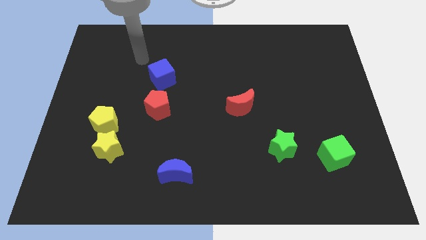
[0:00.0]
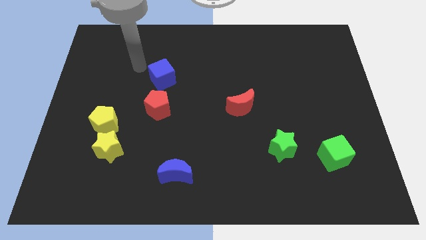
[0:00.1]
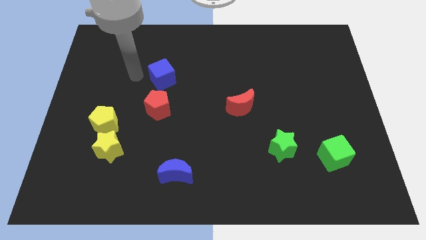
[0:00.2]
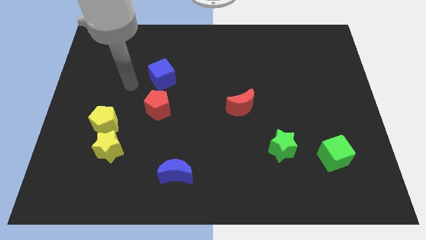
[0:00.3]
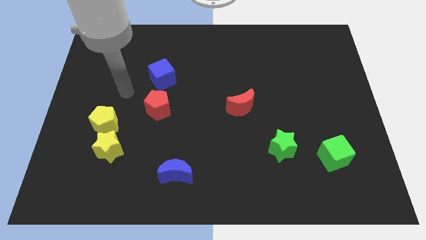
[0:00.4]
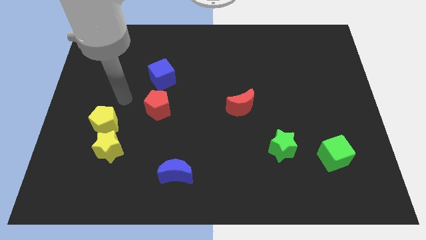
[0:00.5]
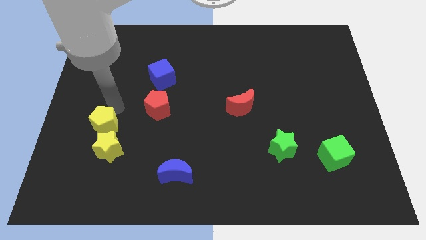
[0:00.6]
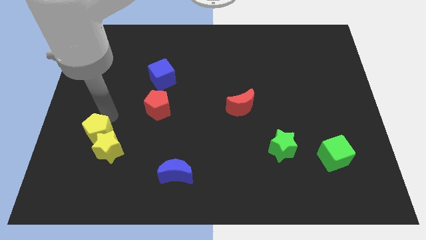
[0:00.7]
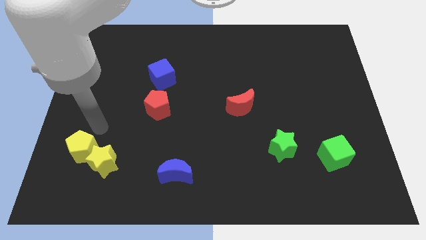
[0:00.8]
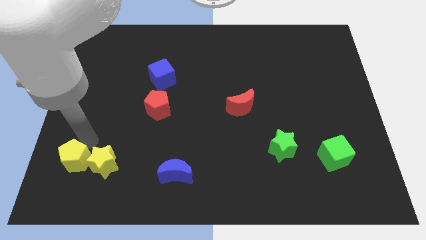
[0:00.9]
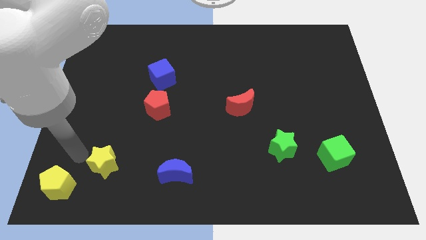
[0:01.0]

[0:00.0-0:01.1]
separate the yellow star from the yellow pentagon

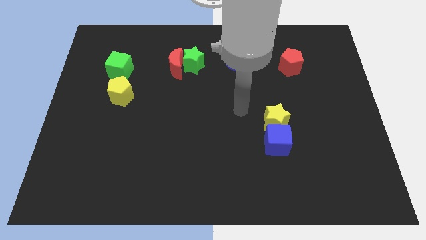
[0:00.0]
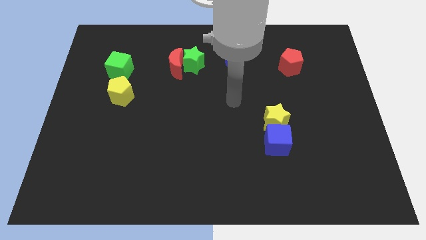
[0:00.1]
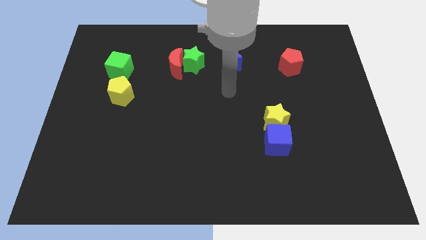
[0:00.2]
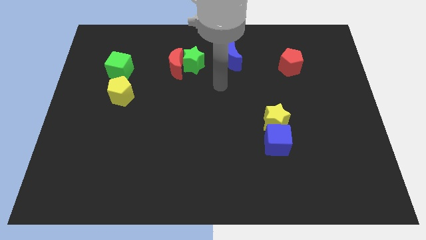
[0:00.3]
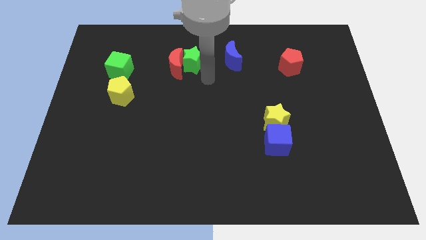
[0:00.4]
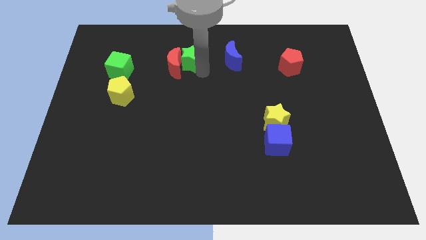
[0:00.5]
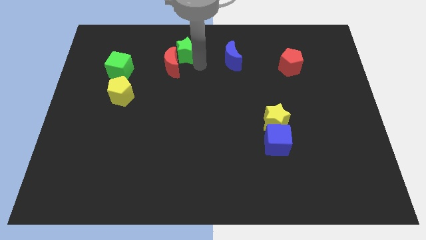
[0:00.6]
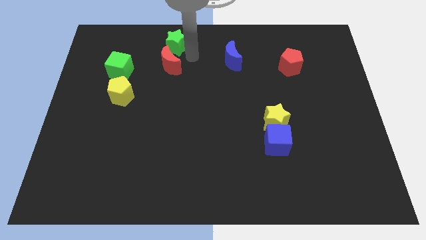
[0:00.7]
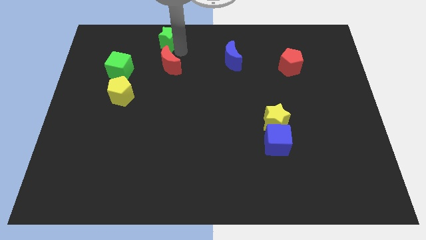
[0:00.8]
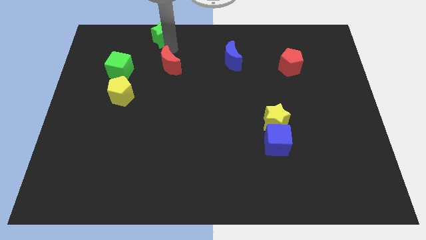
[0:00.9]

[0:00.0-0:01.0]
separate the red moon from the green star

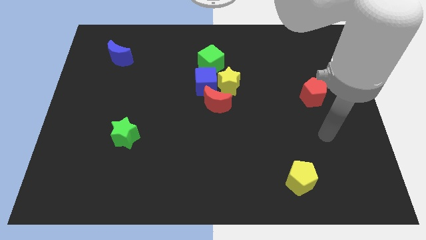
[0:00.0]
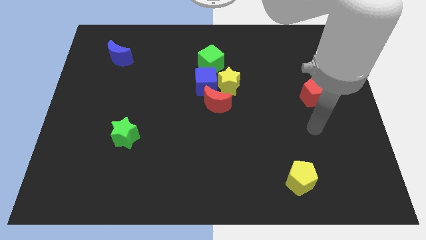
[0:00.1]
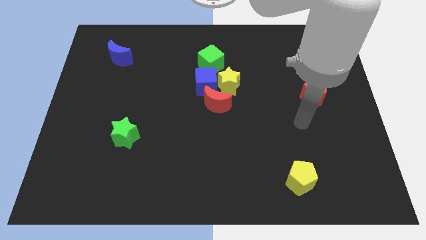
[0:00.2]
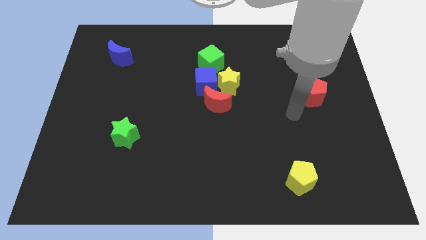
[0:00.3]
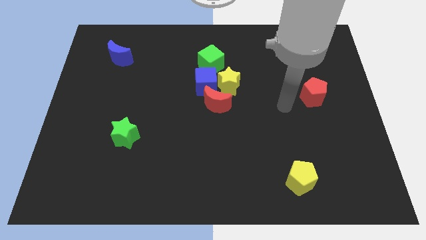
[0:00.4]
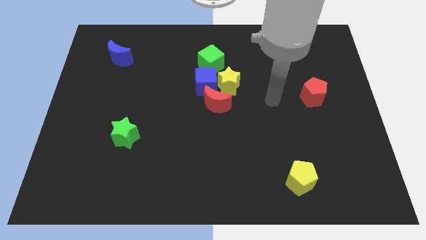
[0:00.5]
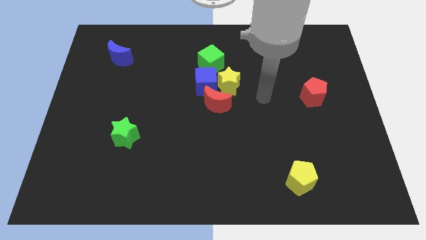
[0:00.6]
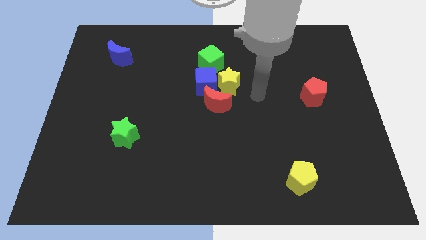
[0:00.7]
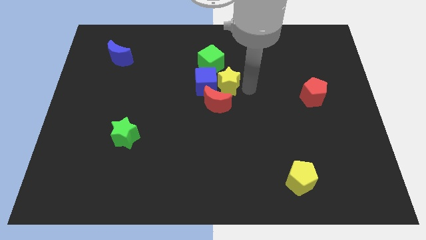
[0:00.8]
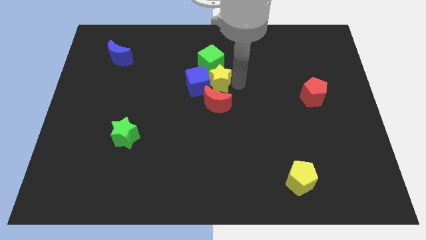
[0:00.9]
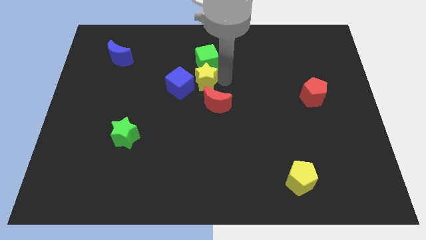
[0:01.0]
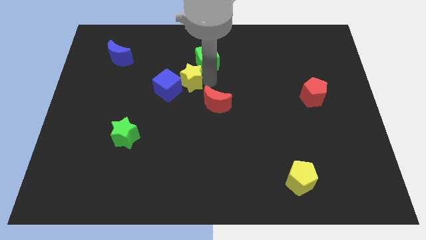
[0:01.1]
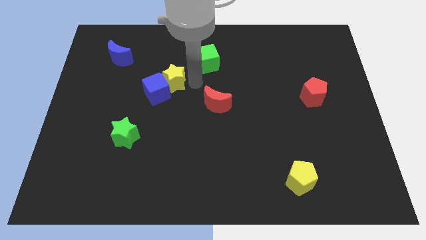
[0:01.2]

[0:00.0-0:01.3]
move the blue cube away from the yellow star, red moon, and green cube

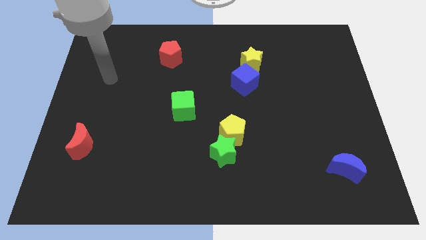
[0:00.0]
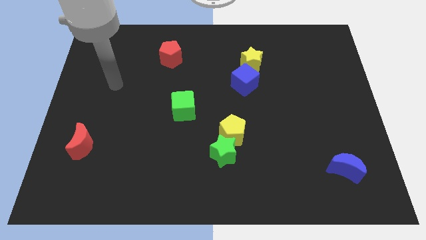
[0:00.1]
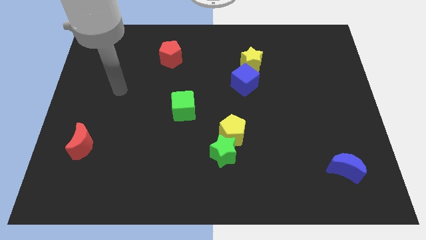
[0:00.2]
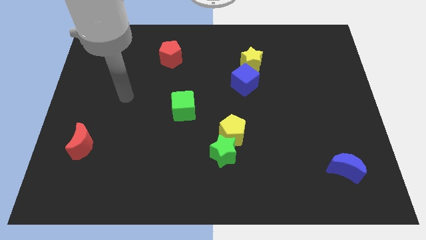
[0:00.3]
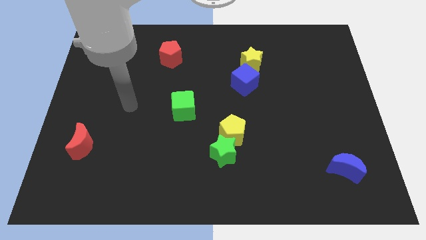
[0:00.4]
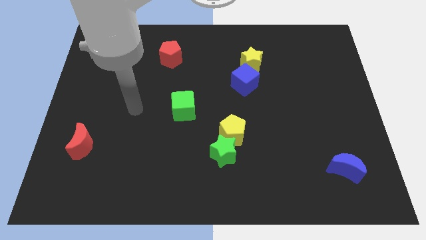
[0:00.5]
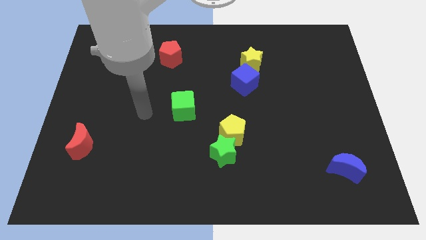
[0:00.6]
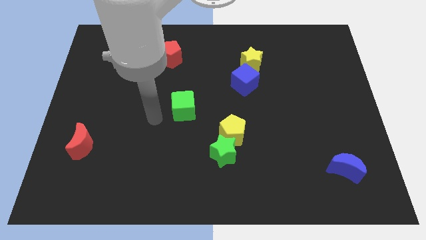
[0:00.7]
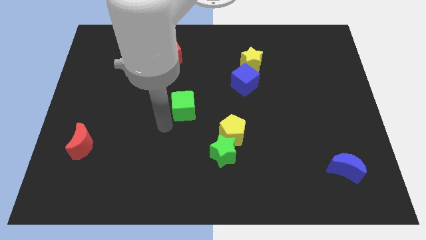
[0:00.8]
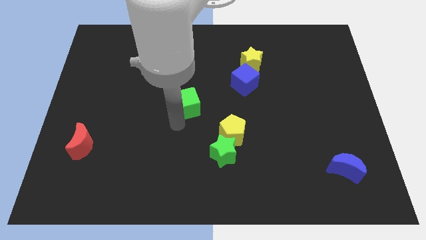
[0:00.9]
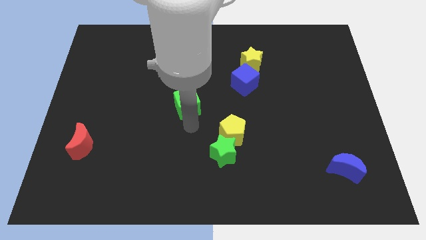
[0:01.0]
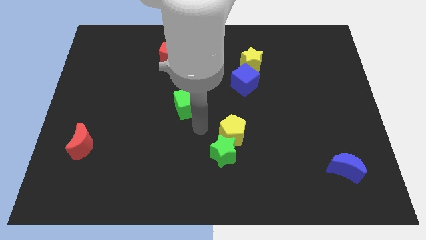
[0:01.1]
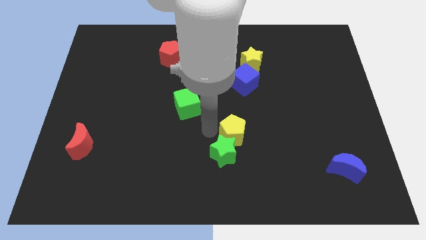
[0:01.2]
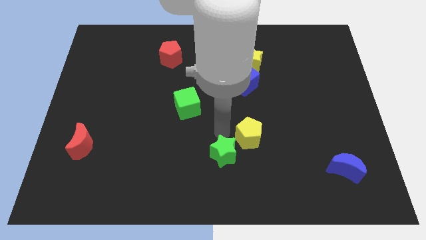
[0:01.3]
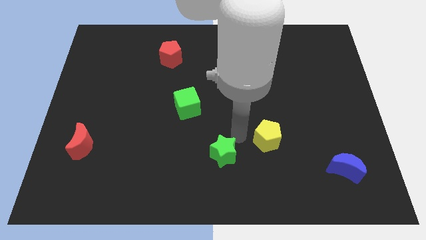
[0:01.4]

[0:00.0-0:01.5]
separate the green star from the yellow pentagon

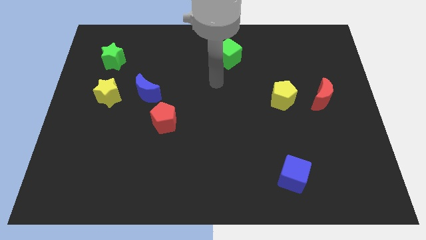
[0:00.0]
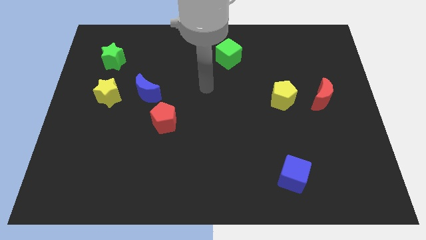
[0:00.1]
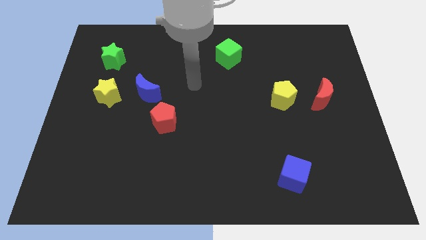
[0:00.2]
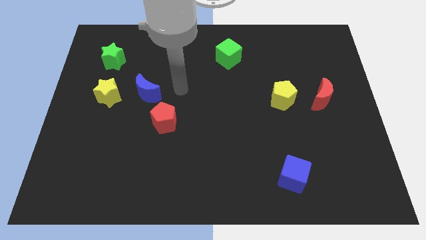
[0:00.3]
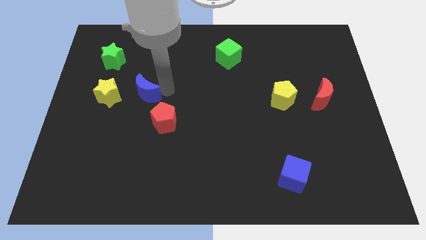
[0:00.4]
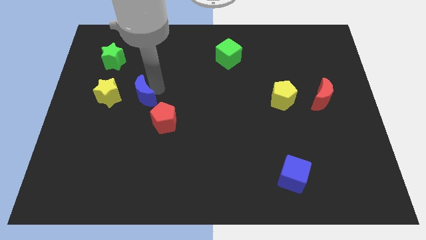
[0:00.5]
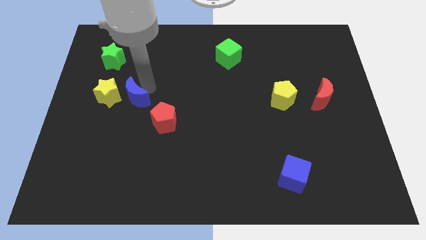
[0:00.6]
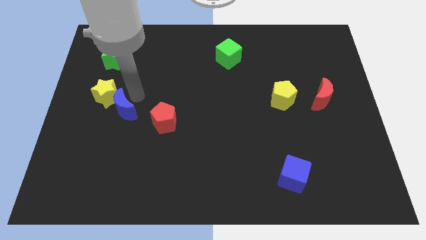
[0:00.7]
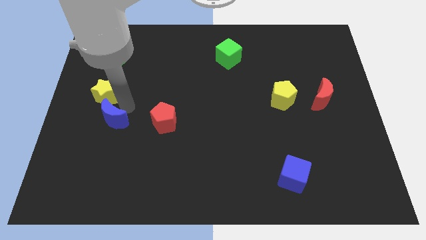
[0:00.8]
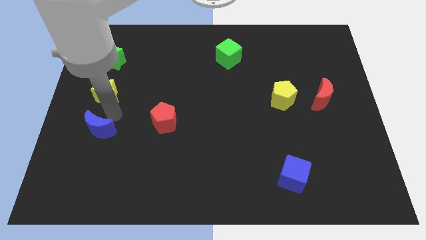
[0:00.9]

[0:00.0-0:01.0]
move the yellow star away from the blue moon

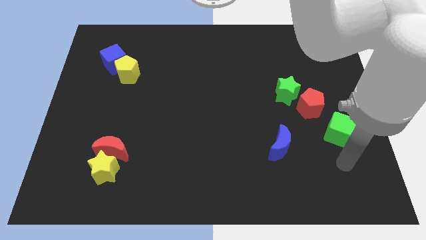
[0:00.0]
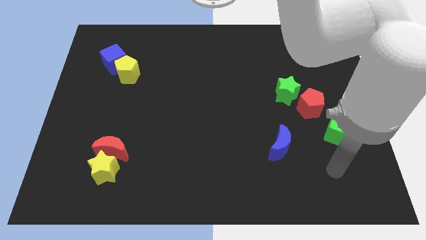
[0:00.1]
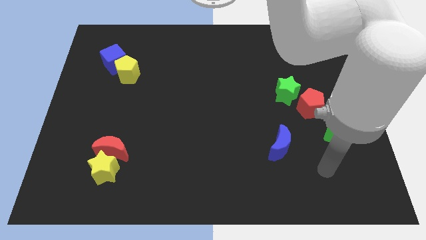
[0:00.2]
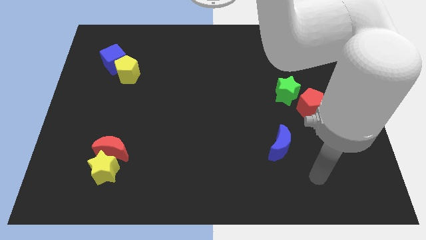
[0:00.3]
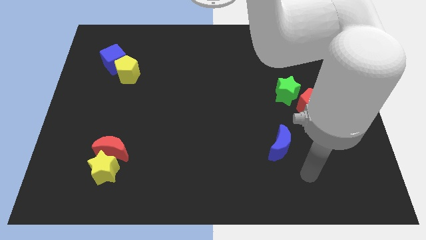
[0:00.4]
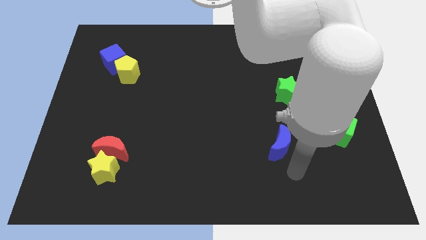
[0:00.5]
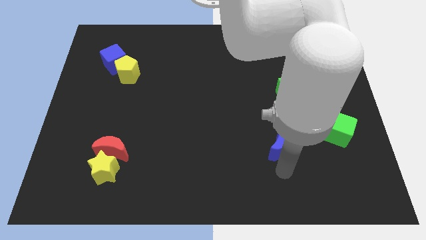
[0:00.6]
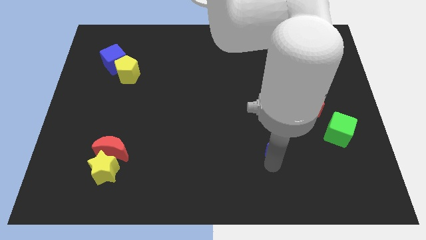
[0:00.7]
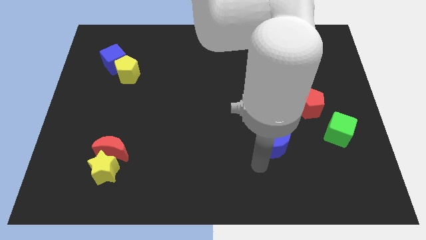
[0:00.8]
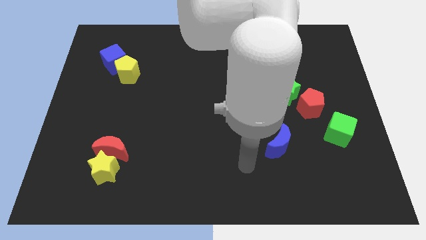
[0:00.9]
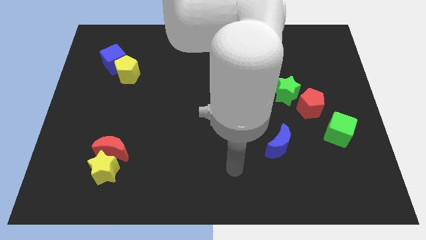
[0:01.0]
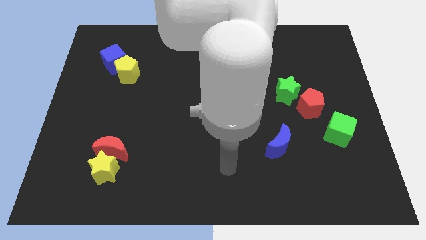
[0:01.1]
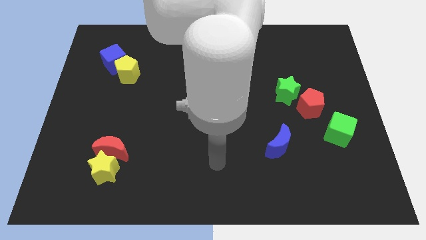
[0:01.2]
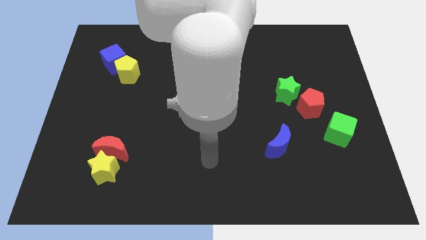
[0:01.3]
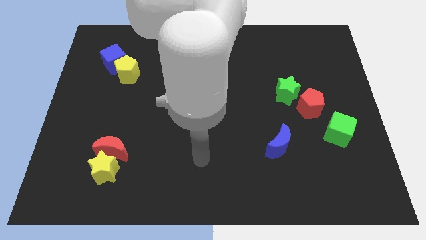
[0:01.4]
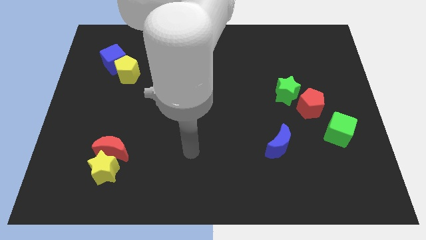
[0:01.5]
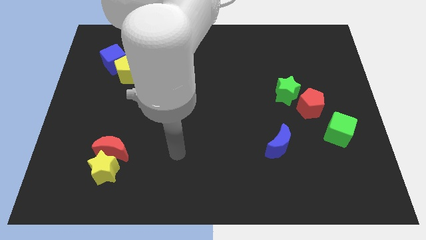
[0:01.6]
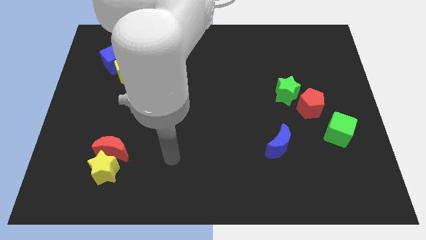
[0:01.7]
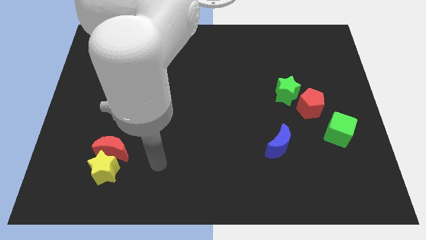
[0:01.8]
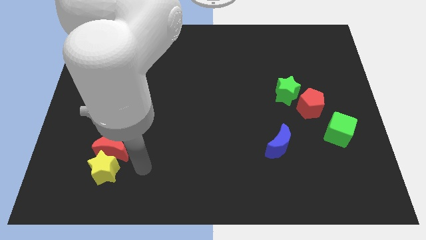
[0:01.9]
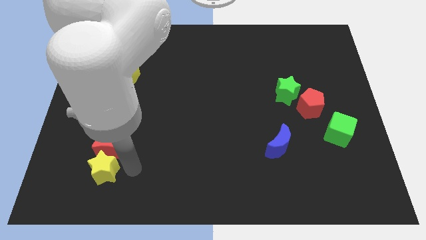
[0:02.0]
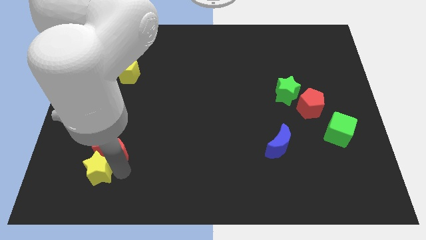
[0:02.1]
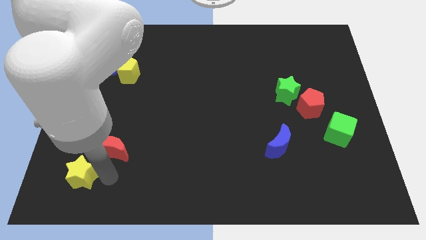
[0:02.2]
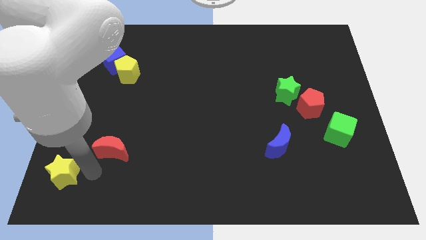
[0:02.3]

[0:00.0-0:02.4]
pull the red moon apart from the yellow star

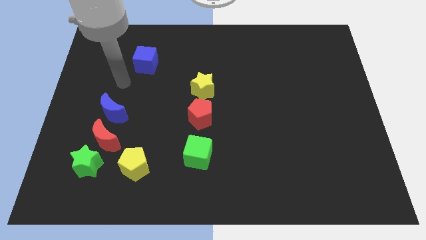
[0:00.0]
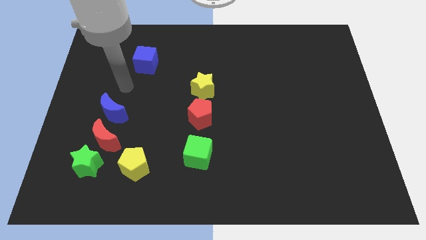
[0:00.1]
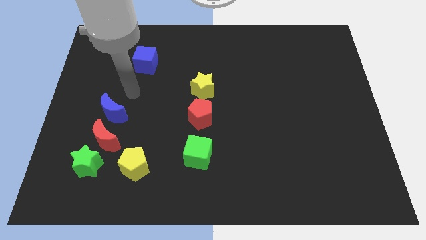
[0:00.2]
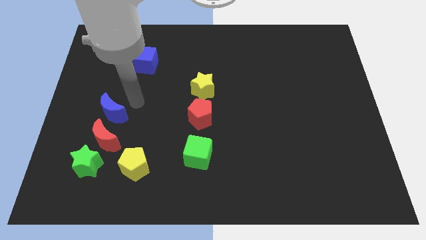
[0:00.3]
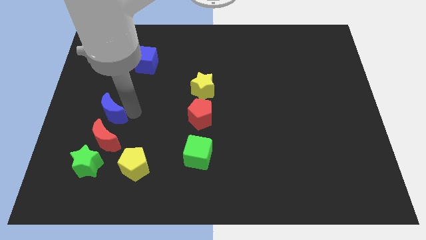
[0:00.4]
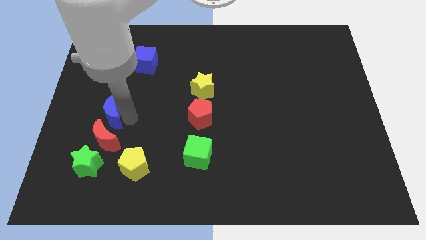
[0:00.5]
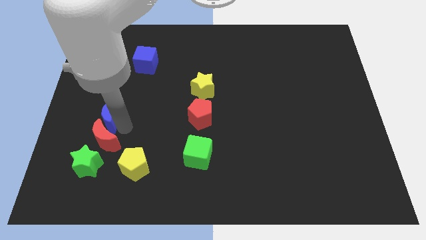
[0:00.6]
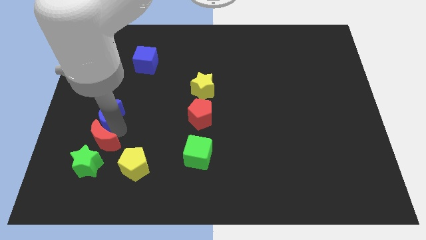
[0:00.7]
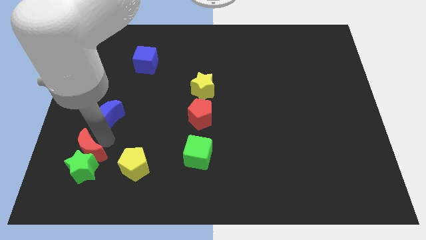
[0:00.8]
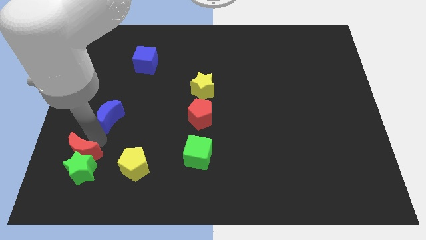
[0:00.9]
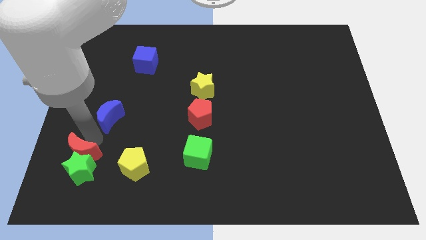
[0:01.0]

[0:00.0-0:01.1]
move the blue moon away from the red moon
